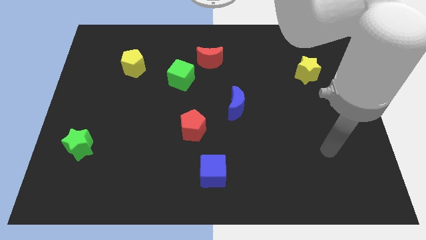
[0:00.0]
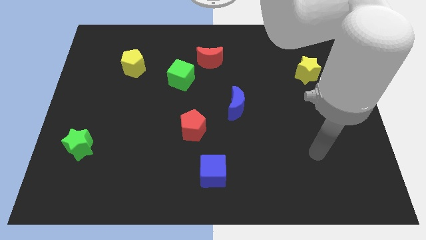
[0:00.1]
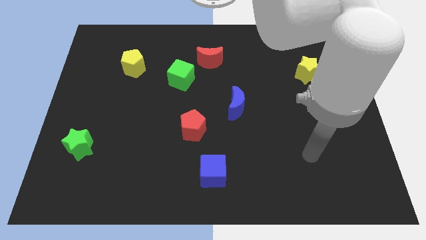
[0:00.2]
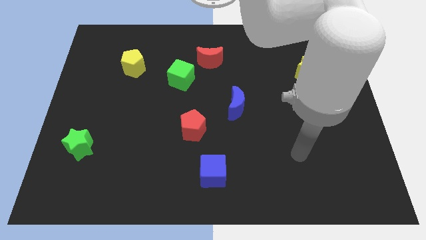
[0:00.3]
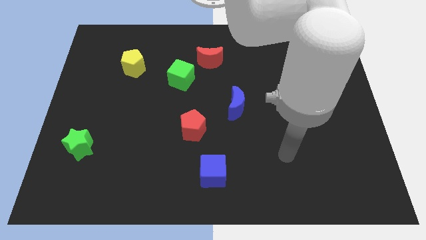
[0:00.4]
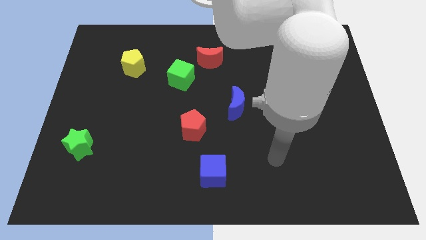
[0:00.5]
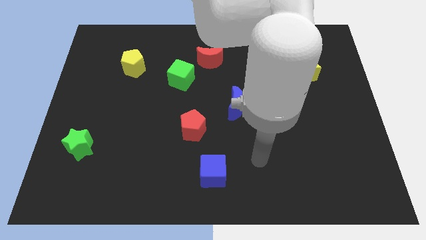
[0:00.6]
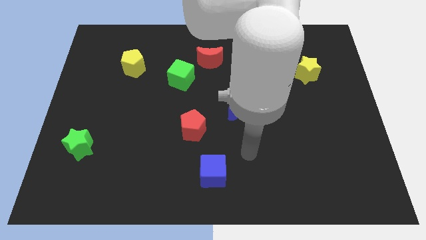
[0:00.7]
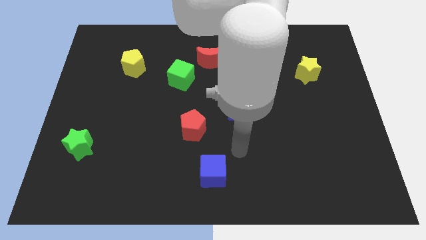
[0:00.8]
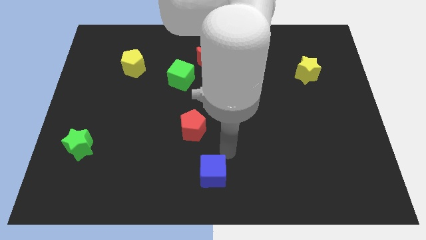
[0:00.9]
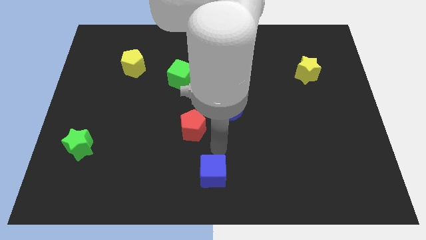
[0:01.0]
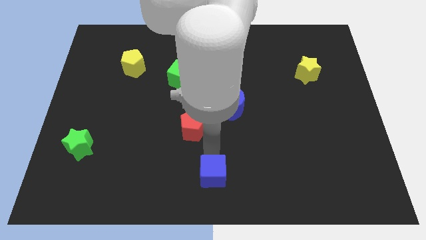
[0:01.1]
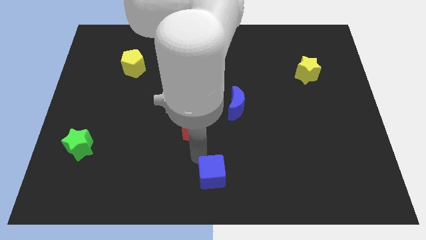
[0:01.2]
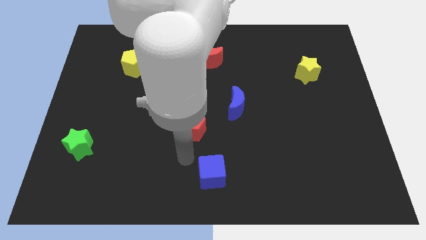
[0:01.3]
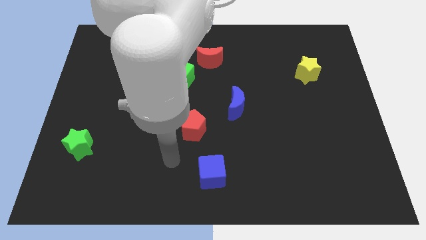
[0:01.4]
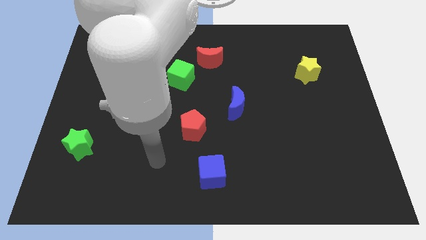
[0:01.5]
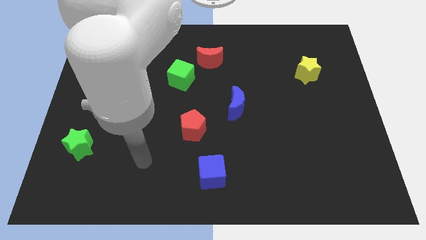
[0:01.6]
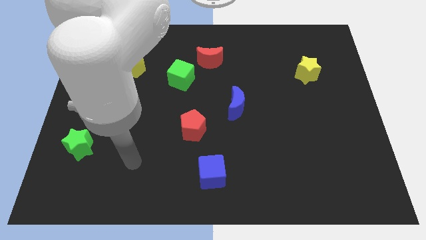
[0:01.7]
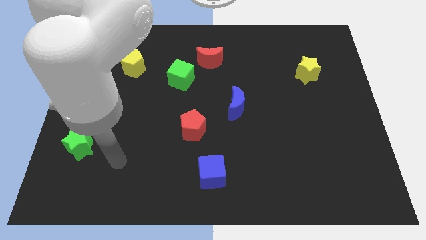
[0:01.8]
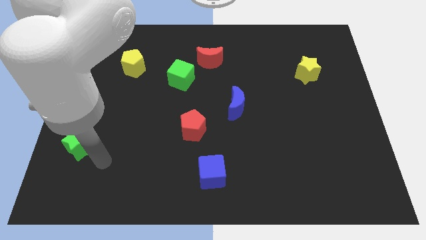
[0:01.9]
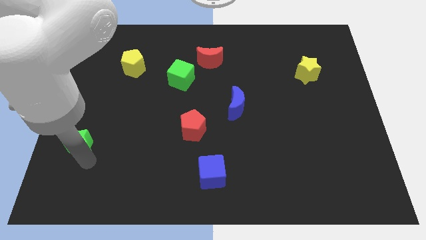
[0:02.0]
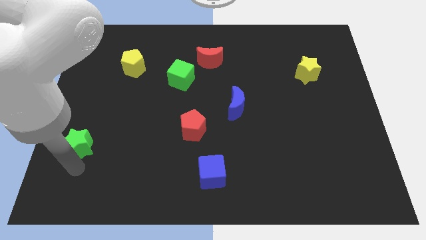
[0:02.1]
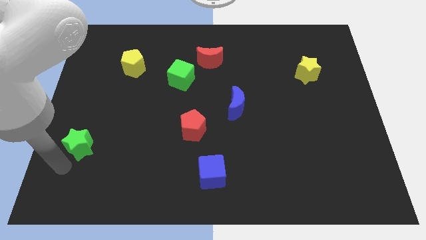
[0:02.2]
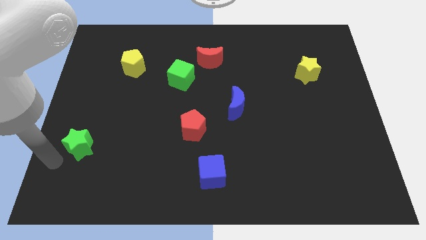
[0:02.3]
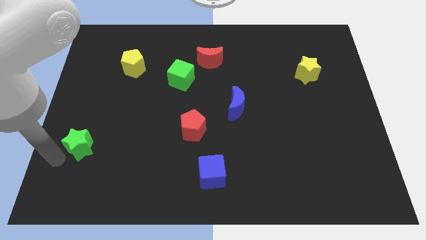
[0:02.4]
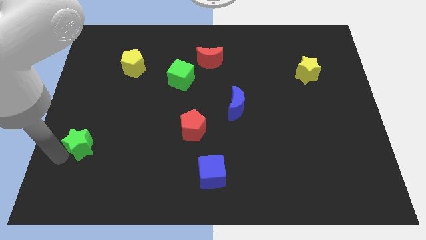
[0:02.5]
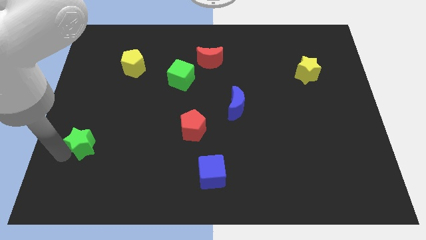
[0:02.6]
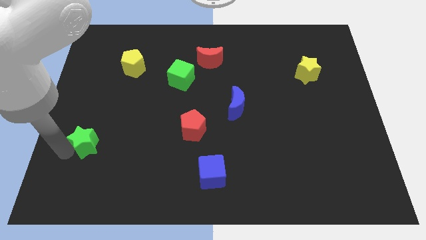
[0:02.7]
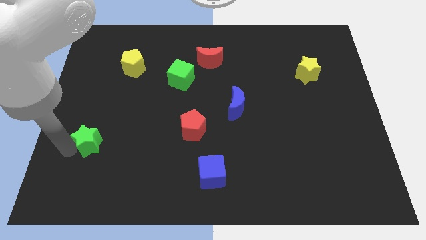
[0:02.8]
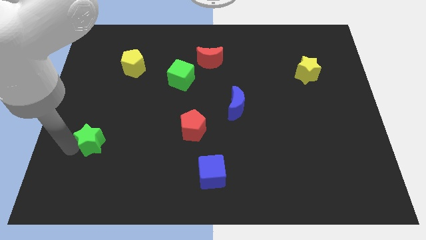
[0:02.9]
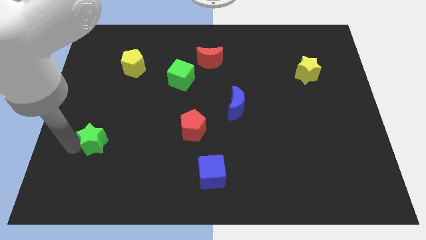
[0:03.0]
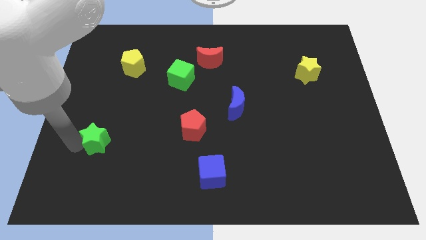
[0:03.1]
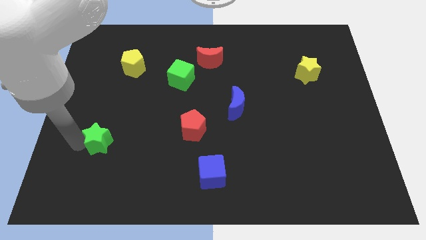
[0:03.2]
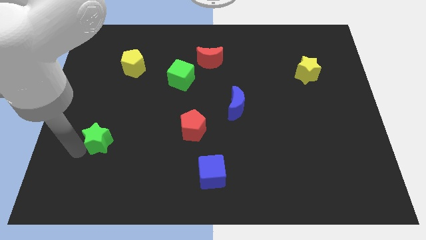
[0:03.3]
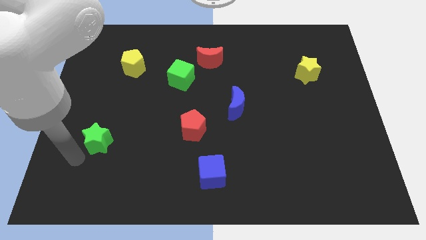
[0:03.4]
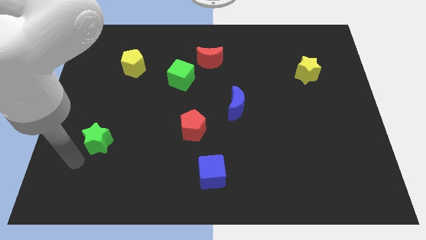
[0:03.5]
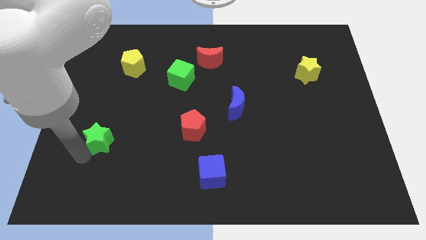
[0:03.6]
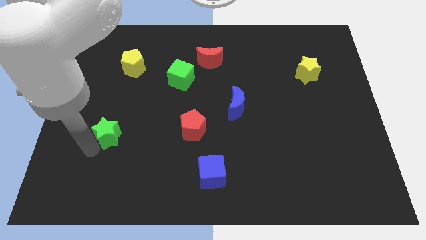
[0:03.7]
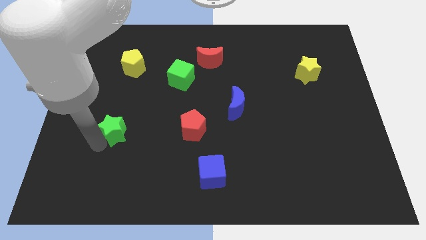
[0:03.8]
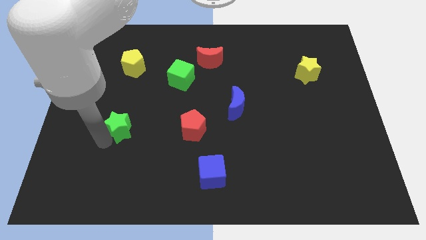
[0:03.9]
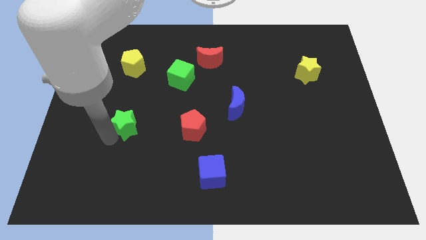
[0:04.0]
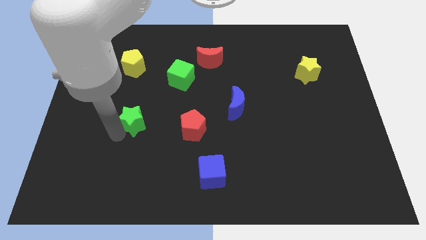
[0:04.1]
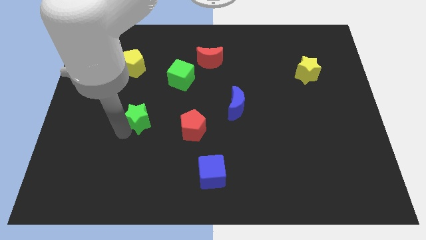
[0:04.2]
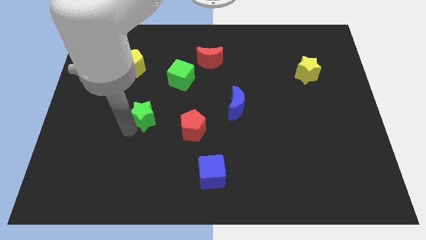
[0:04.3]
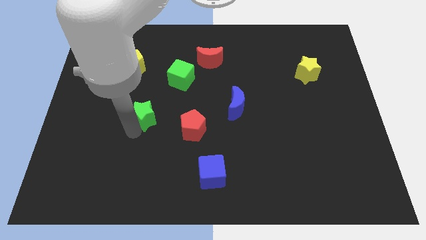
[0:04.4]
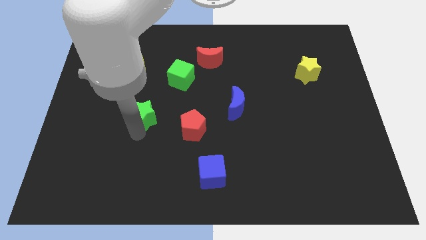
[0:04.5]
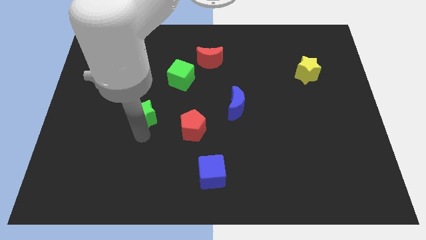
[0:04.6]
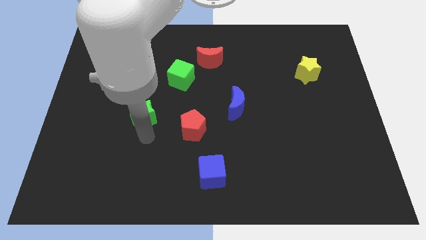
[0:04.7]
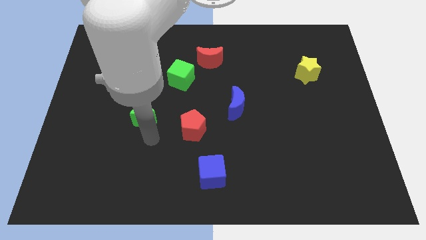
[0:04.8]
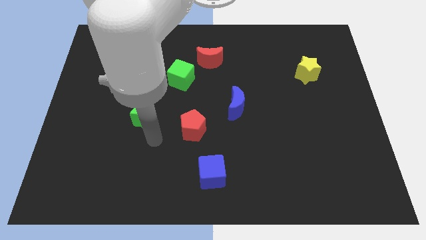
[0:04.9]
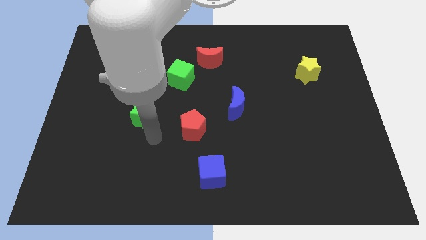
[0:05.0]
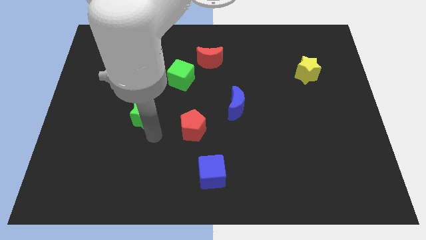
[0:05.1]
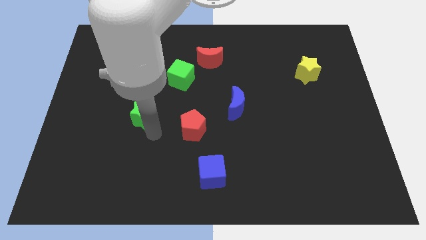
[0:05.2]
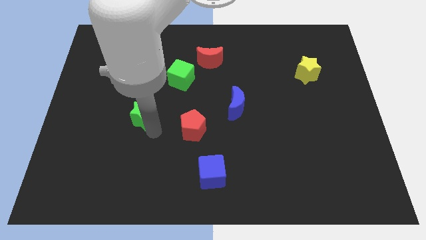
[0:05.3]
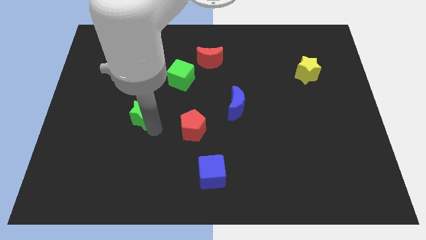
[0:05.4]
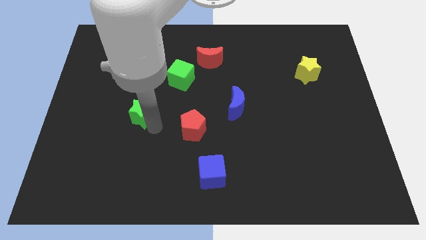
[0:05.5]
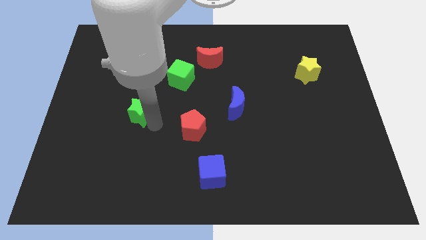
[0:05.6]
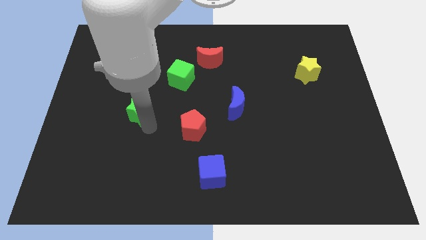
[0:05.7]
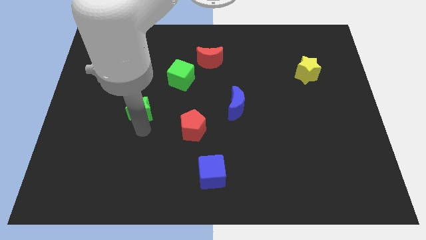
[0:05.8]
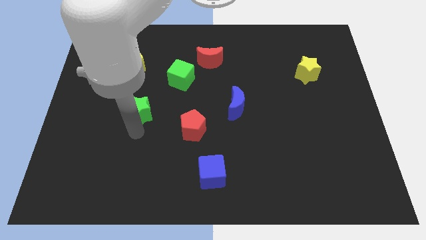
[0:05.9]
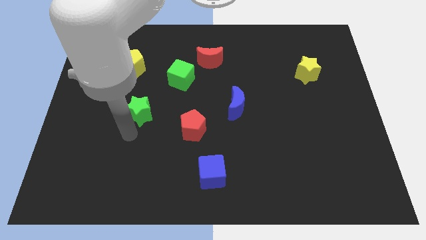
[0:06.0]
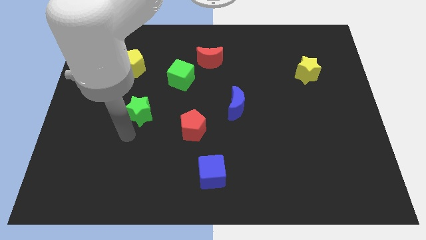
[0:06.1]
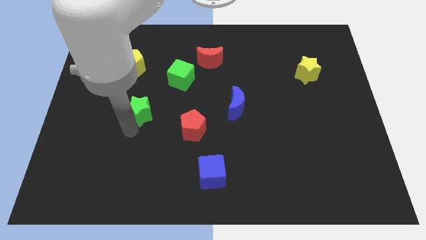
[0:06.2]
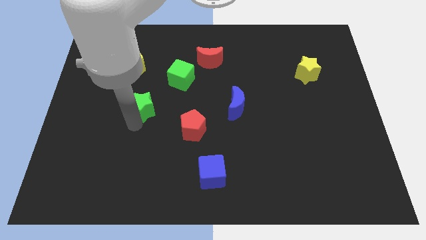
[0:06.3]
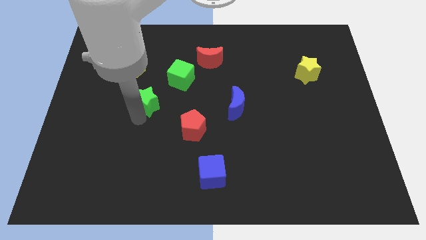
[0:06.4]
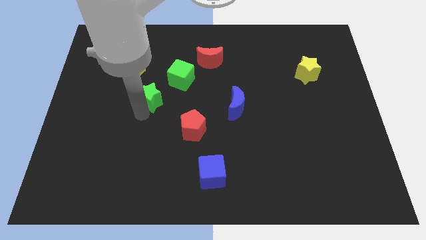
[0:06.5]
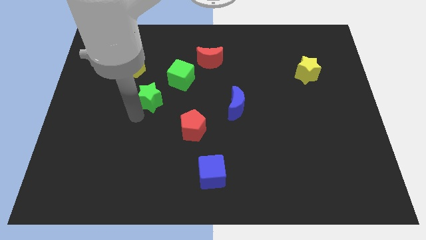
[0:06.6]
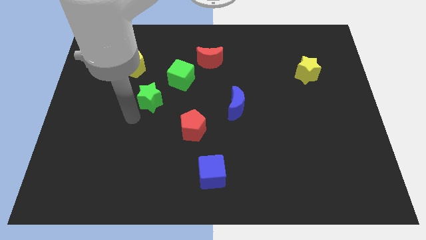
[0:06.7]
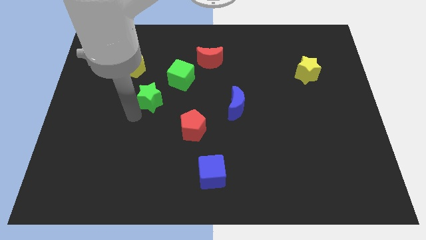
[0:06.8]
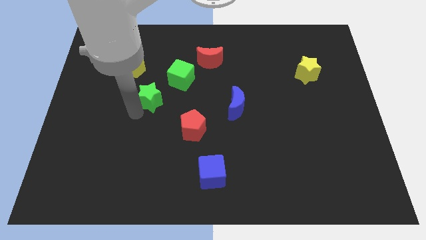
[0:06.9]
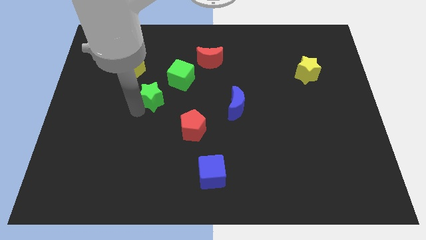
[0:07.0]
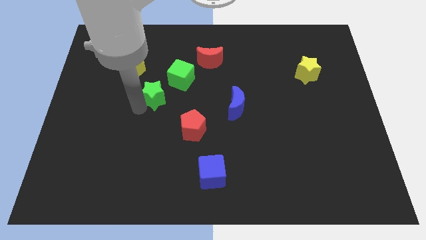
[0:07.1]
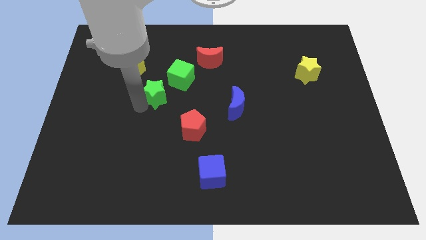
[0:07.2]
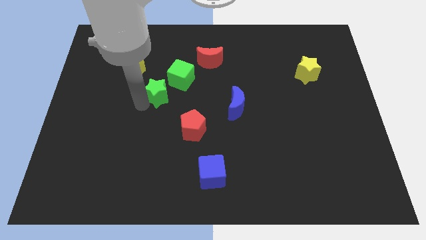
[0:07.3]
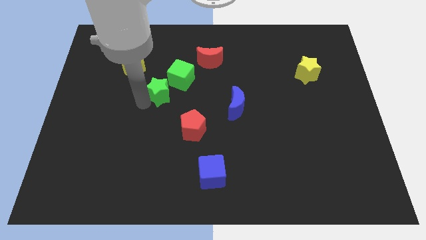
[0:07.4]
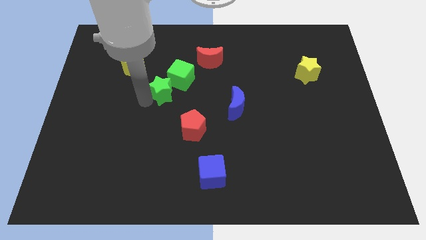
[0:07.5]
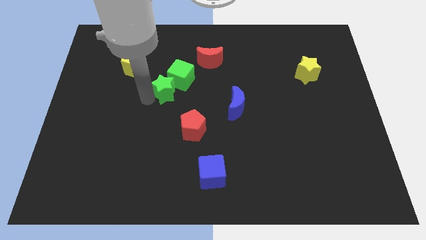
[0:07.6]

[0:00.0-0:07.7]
put the green star close to the green cube

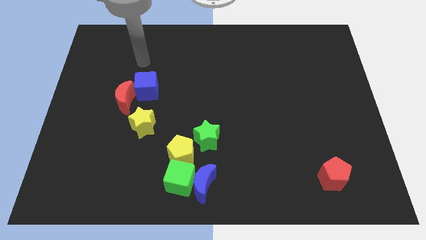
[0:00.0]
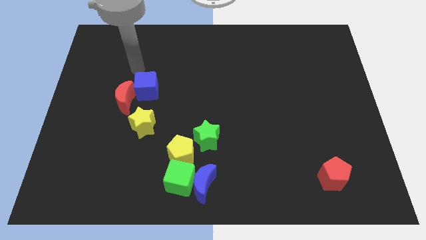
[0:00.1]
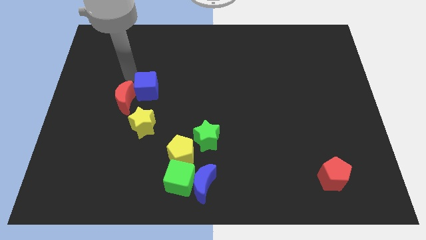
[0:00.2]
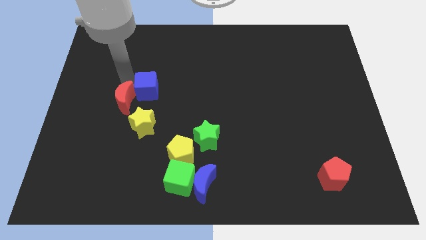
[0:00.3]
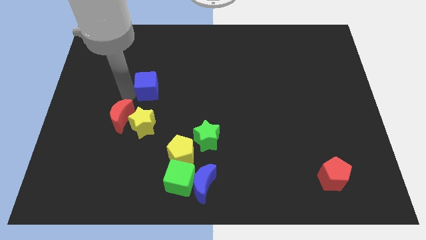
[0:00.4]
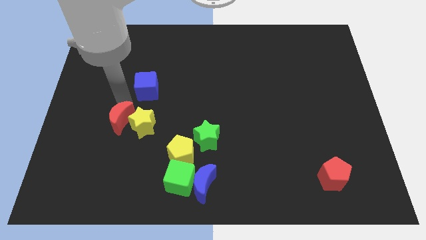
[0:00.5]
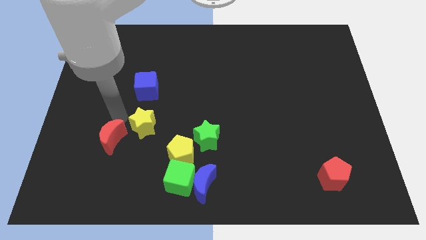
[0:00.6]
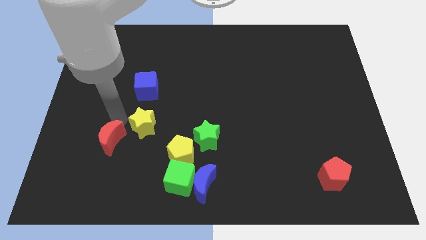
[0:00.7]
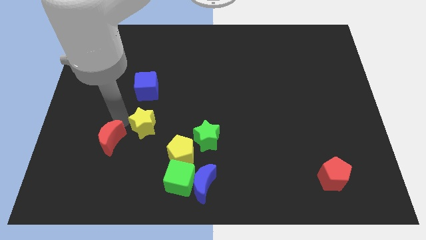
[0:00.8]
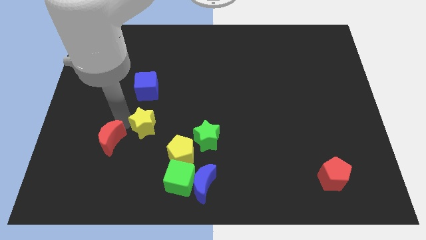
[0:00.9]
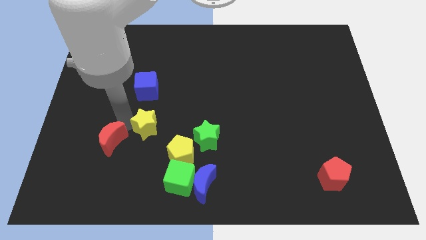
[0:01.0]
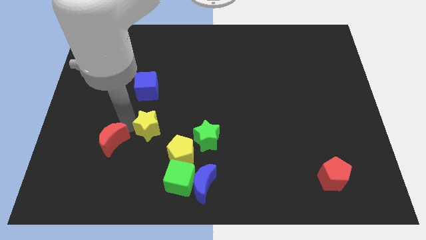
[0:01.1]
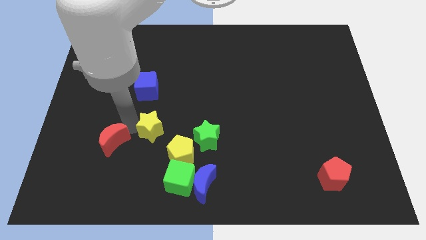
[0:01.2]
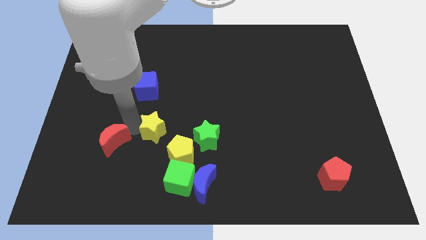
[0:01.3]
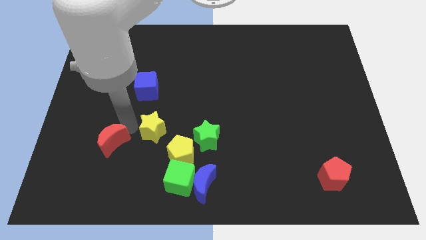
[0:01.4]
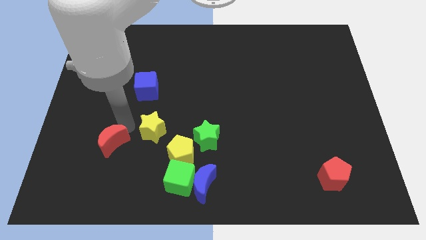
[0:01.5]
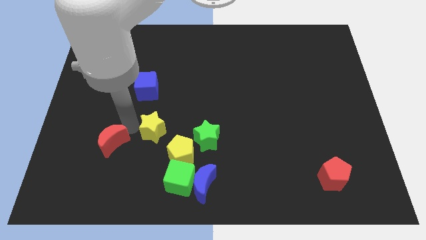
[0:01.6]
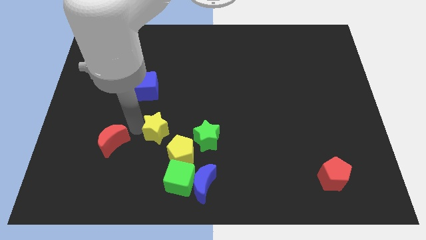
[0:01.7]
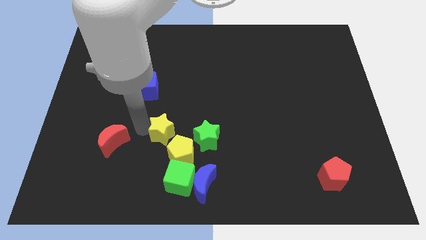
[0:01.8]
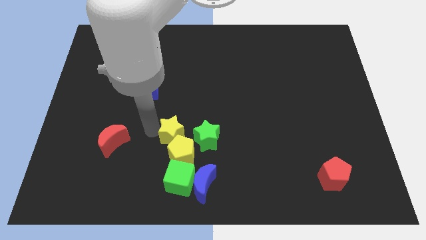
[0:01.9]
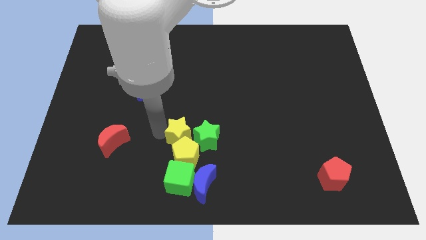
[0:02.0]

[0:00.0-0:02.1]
put the yellow star next to the green star
